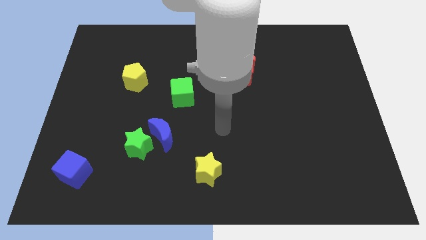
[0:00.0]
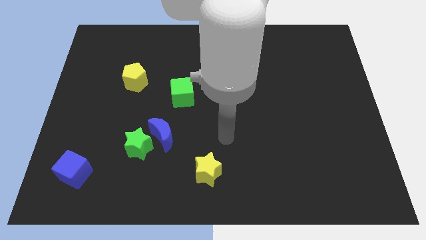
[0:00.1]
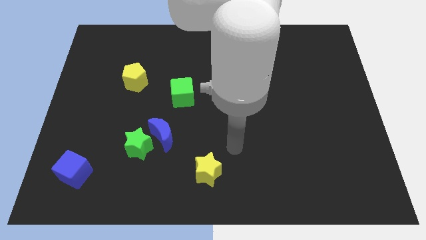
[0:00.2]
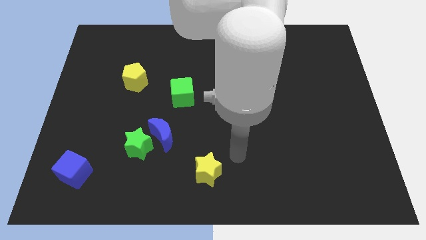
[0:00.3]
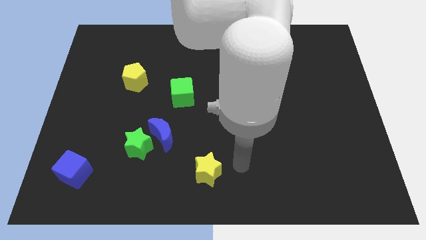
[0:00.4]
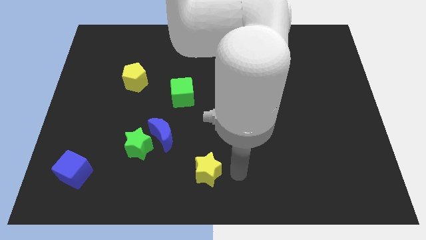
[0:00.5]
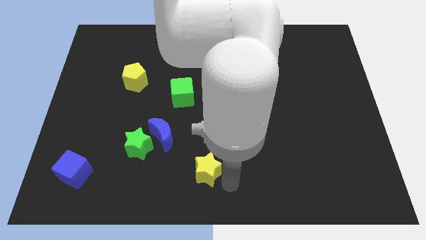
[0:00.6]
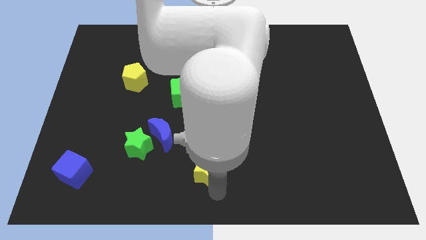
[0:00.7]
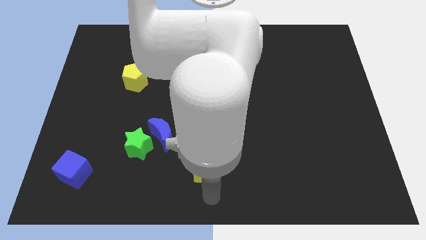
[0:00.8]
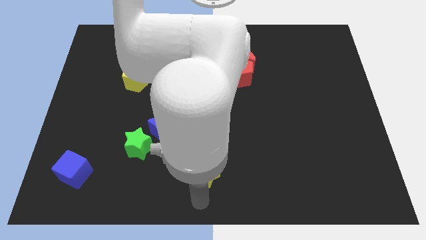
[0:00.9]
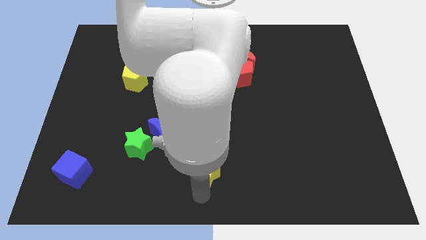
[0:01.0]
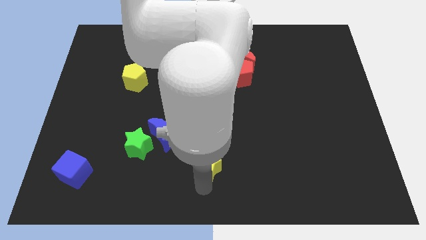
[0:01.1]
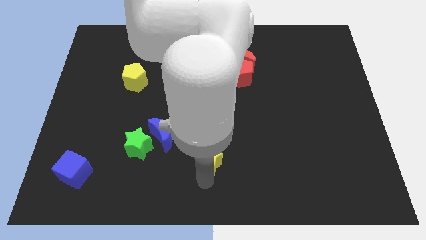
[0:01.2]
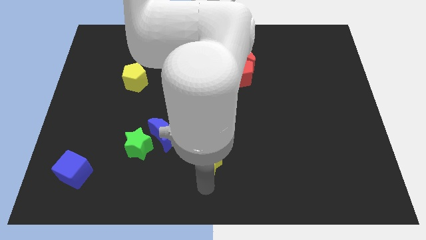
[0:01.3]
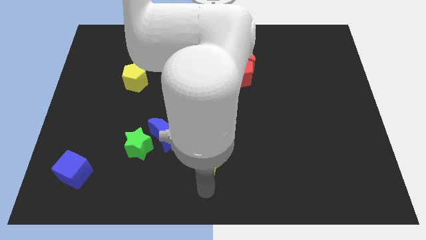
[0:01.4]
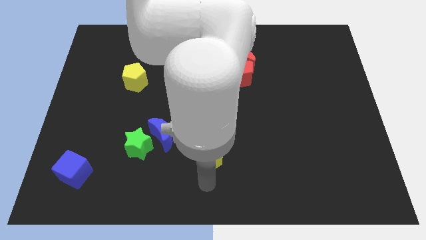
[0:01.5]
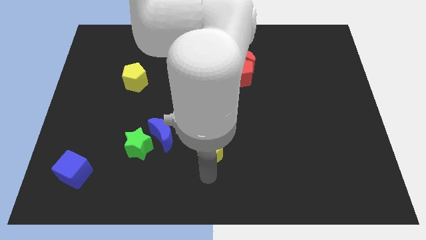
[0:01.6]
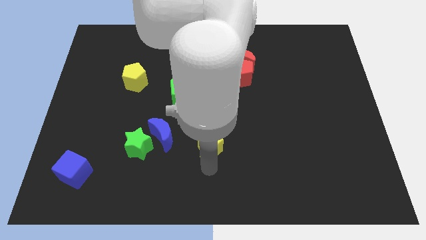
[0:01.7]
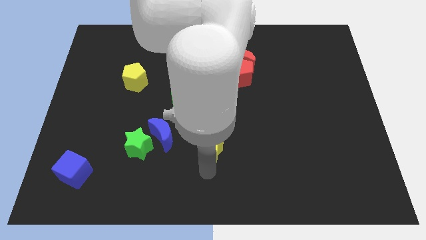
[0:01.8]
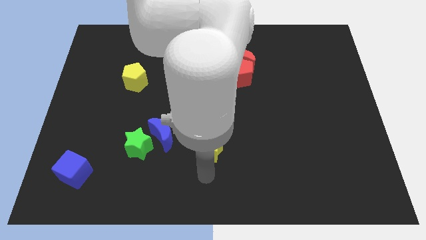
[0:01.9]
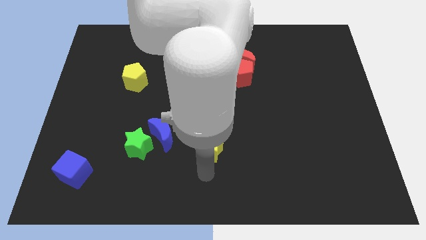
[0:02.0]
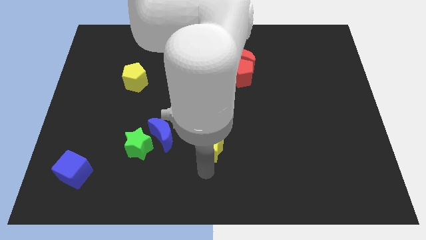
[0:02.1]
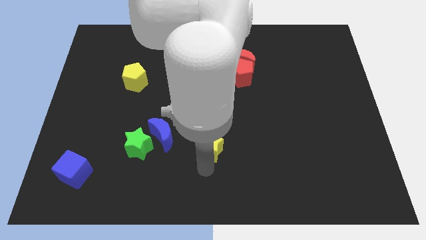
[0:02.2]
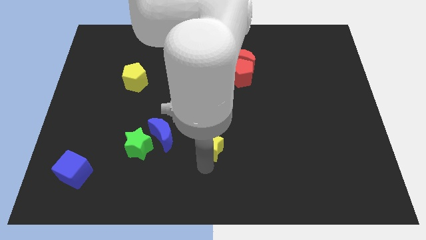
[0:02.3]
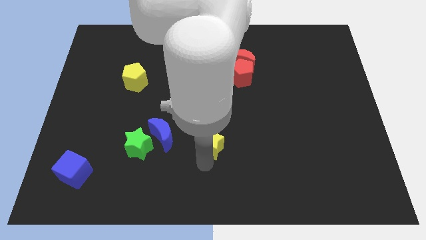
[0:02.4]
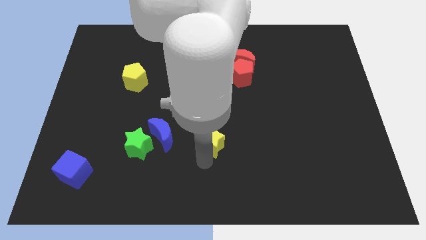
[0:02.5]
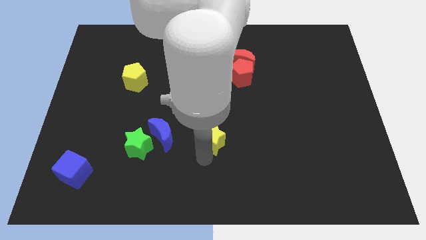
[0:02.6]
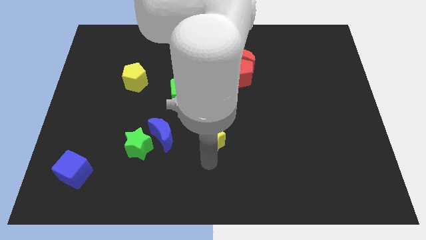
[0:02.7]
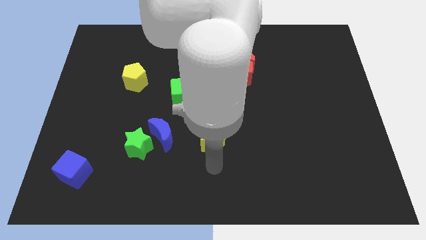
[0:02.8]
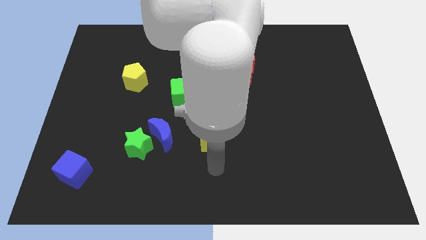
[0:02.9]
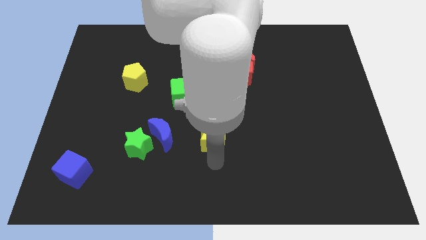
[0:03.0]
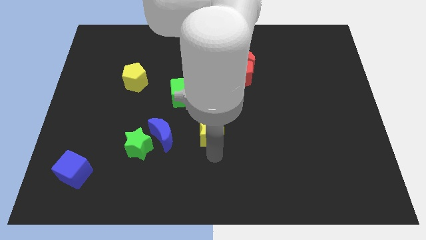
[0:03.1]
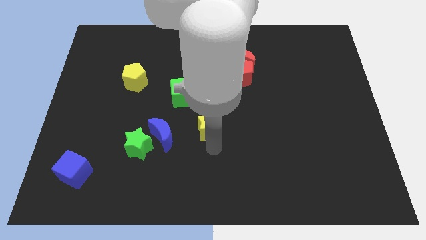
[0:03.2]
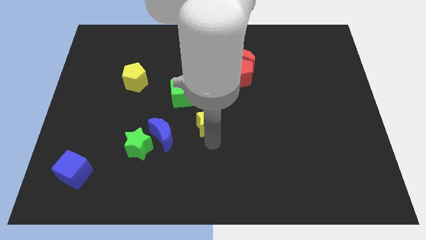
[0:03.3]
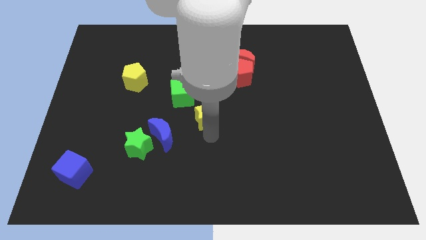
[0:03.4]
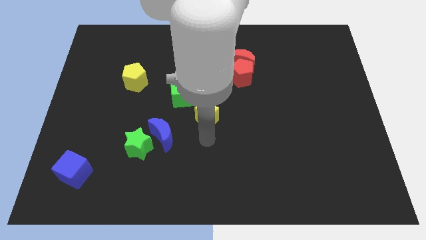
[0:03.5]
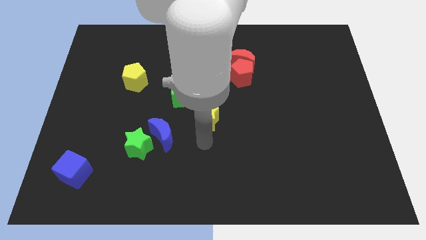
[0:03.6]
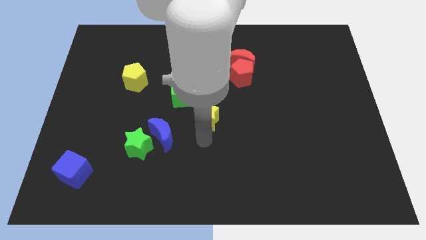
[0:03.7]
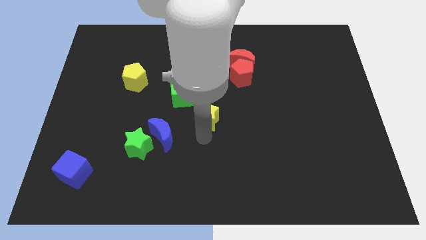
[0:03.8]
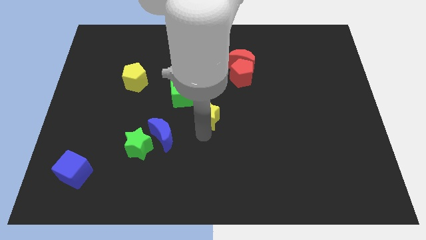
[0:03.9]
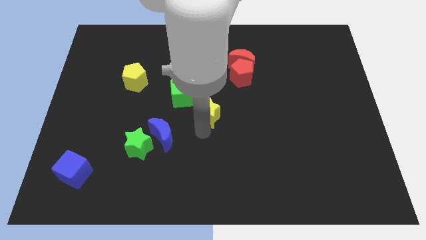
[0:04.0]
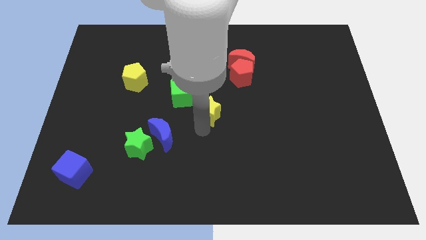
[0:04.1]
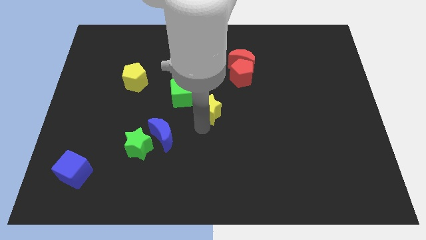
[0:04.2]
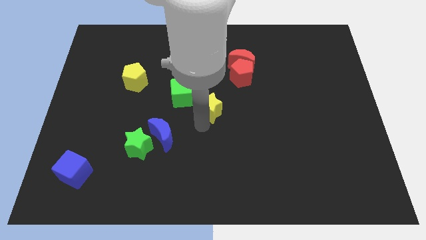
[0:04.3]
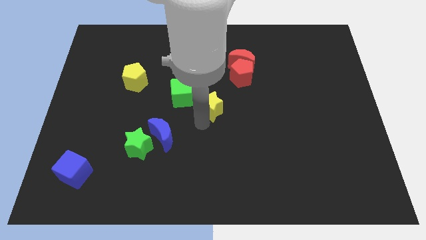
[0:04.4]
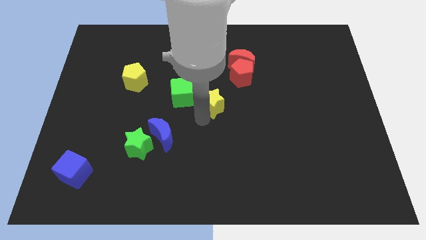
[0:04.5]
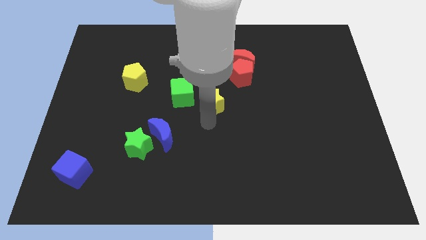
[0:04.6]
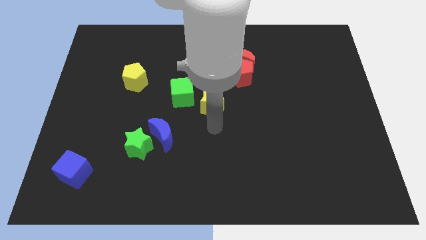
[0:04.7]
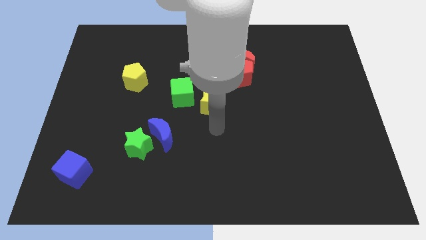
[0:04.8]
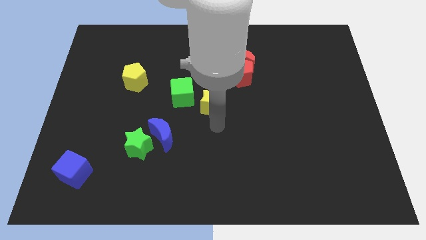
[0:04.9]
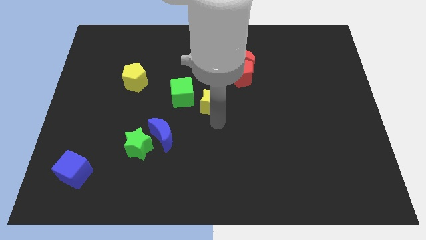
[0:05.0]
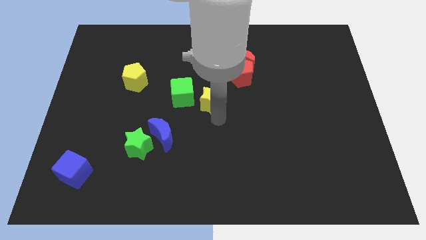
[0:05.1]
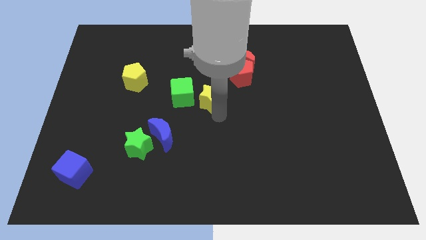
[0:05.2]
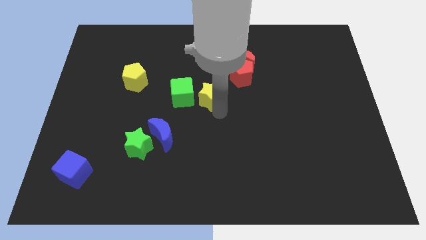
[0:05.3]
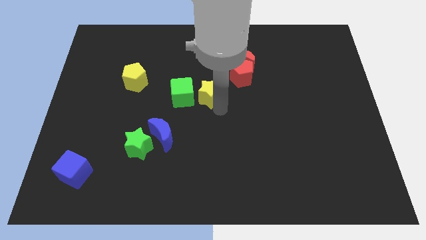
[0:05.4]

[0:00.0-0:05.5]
move the yellow star upwards

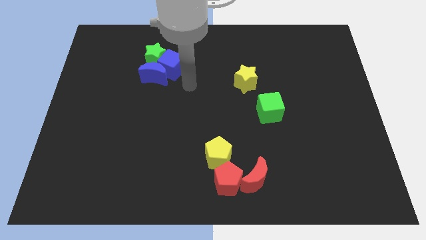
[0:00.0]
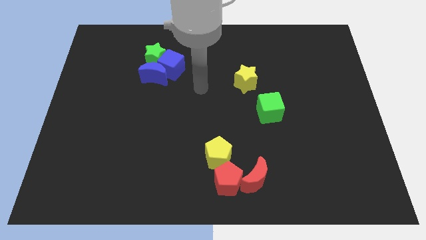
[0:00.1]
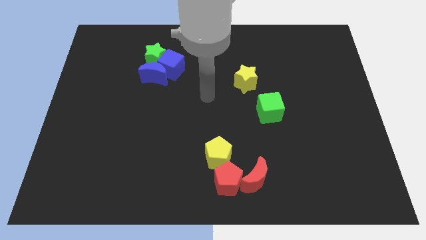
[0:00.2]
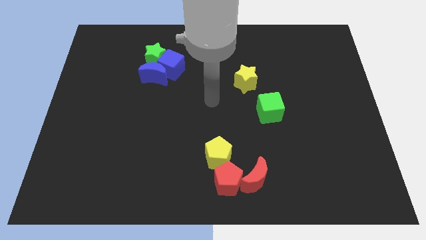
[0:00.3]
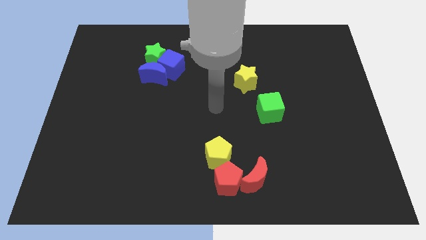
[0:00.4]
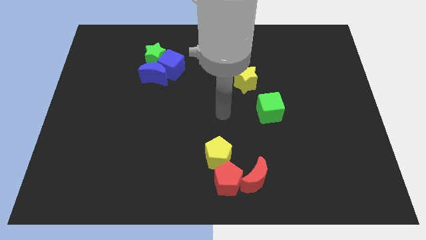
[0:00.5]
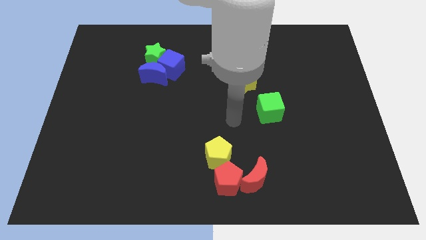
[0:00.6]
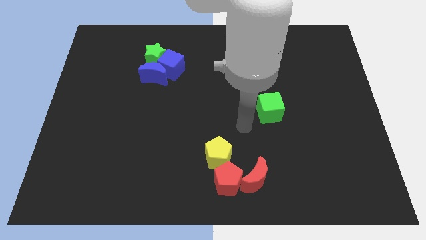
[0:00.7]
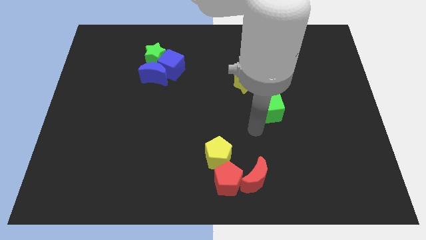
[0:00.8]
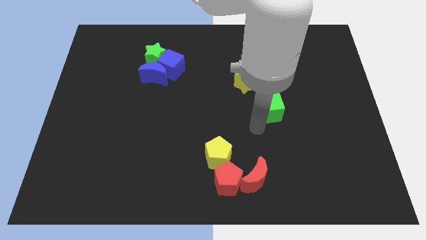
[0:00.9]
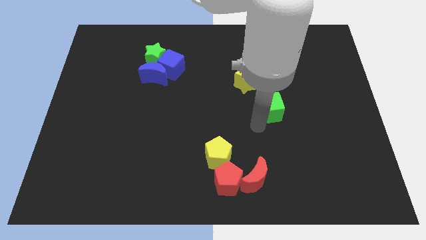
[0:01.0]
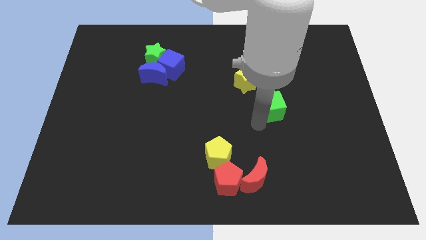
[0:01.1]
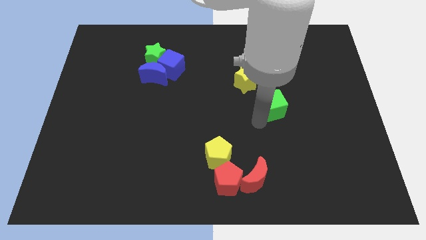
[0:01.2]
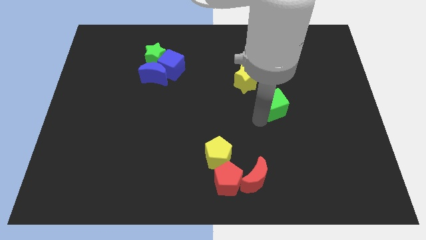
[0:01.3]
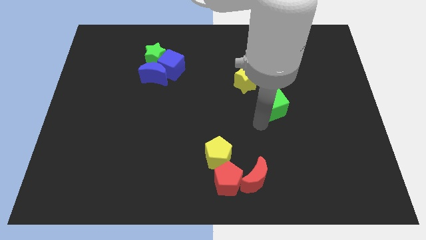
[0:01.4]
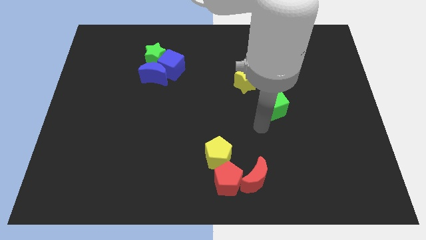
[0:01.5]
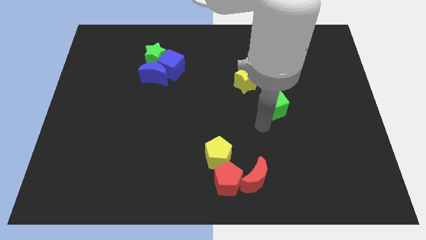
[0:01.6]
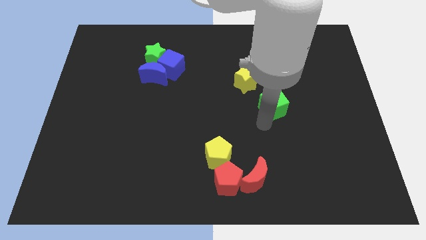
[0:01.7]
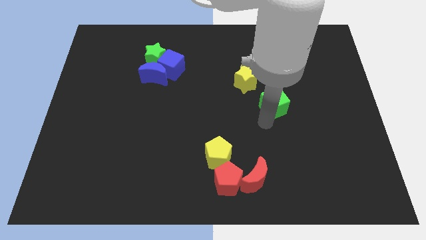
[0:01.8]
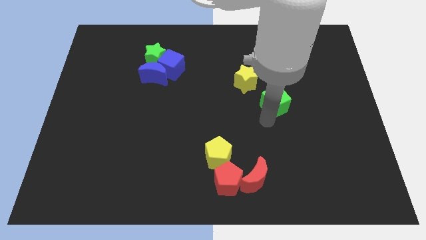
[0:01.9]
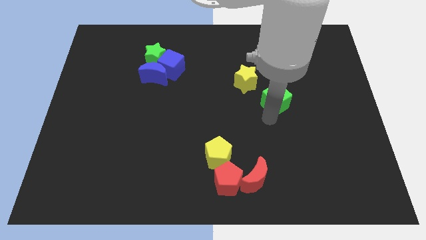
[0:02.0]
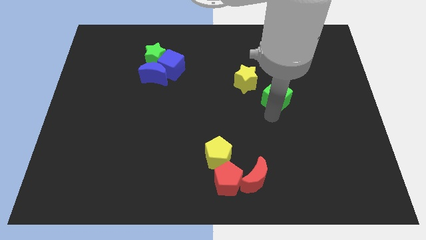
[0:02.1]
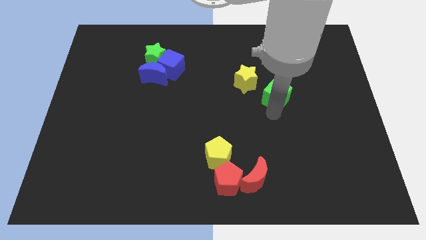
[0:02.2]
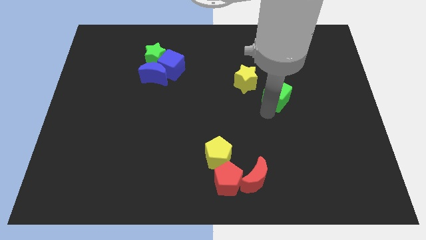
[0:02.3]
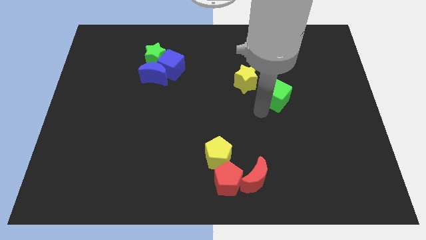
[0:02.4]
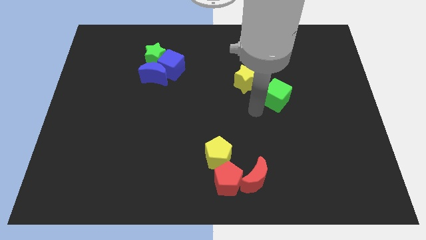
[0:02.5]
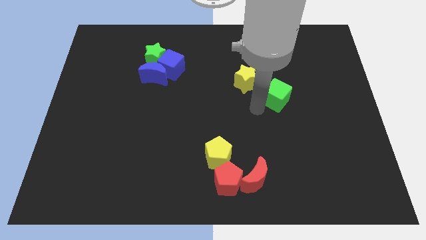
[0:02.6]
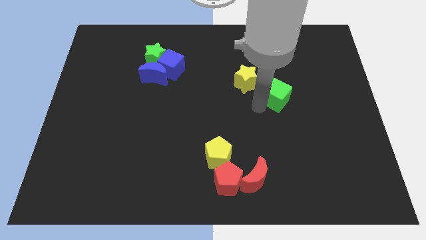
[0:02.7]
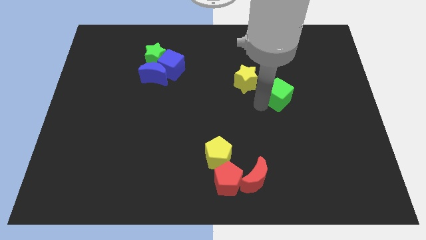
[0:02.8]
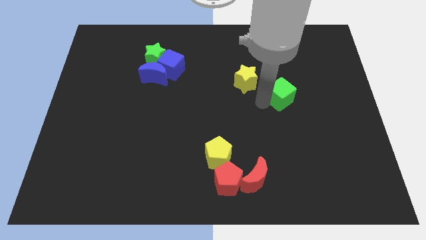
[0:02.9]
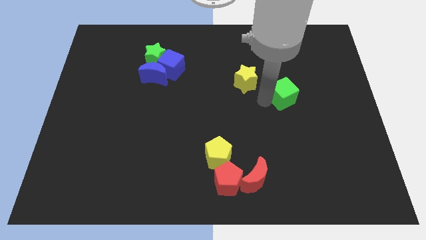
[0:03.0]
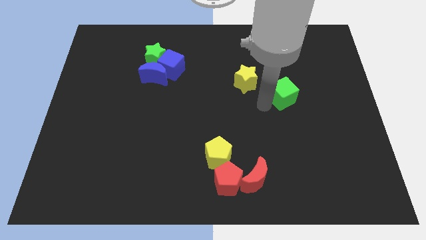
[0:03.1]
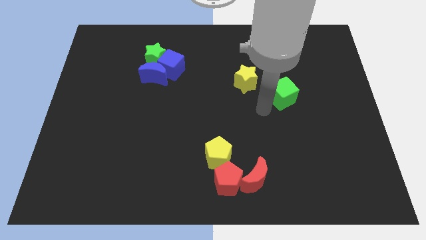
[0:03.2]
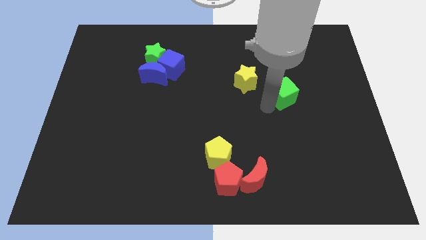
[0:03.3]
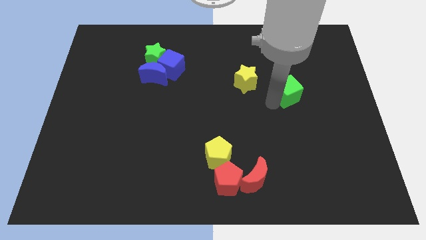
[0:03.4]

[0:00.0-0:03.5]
slide the green cube upwards and then right a bit
